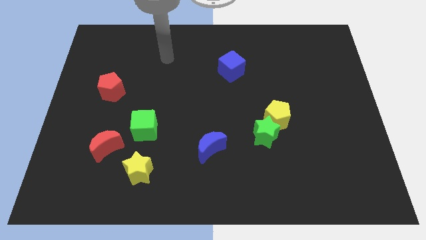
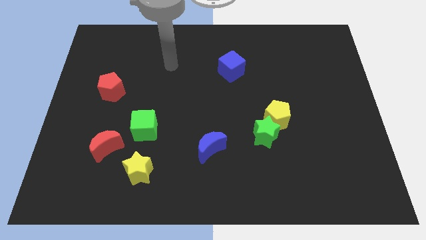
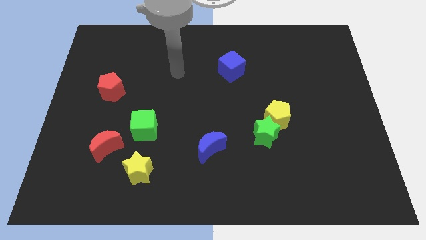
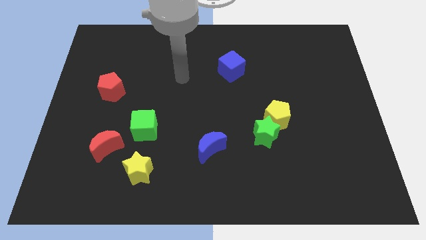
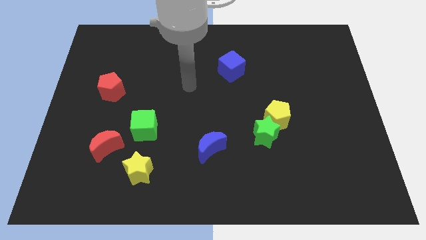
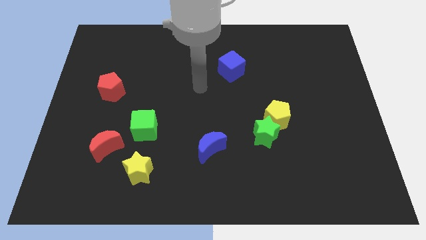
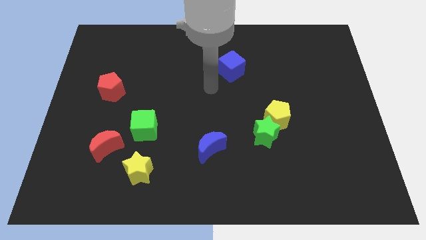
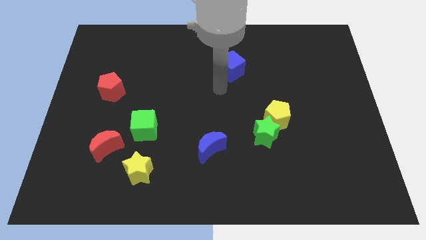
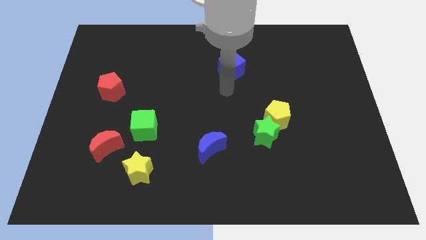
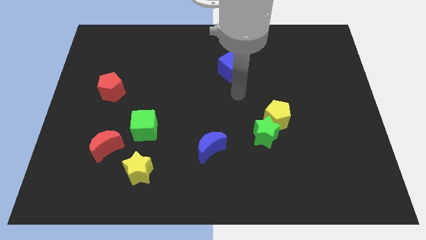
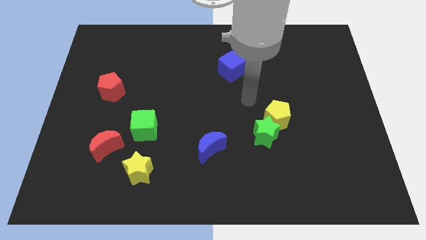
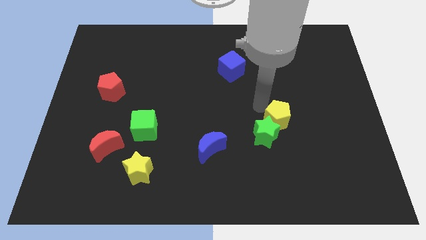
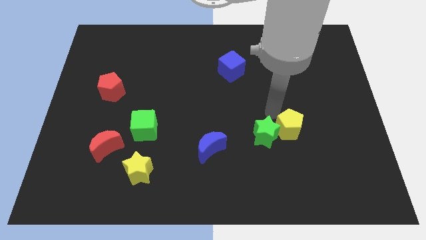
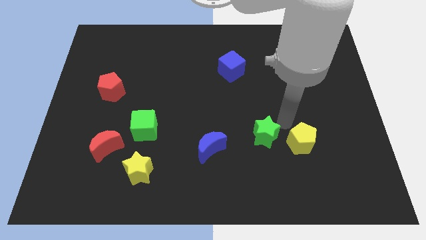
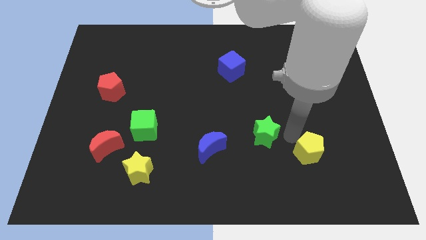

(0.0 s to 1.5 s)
separate the green star from the yellow pentagon

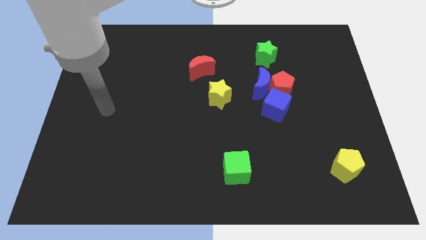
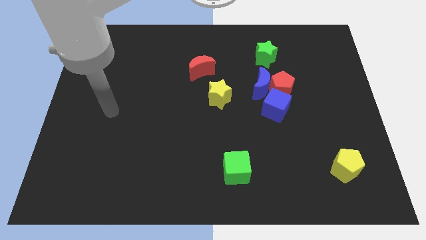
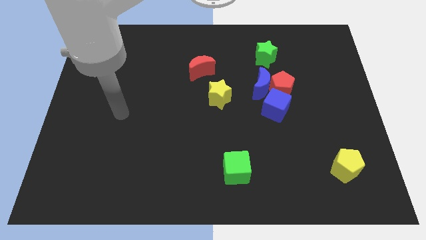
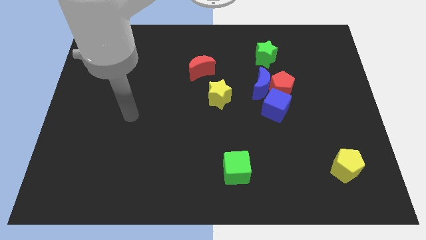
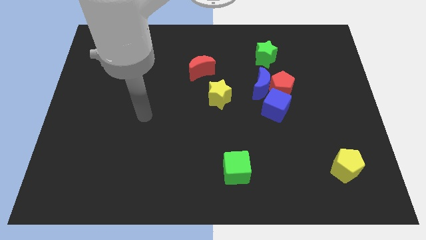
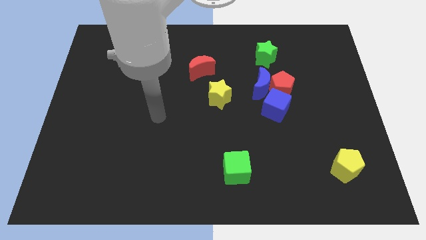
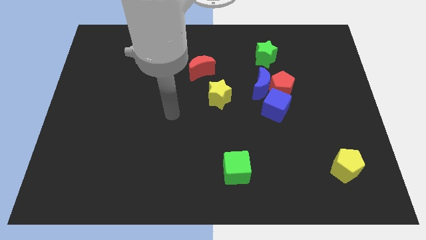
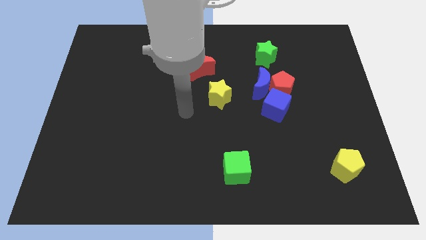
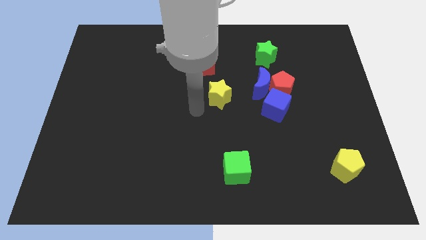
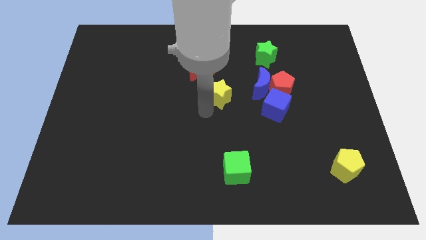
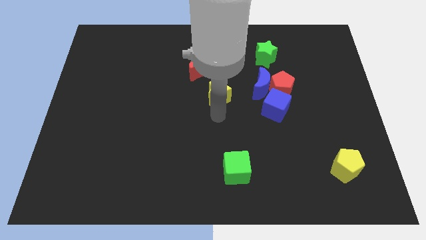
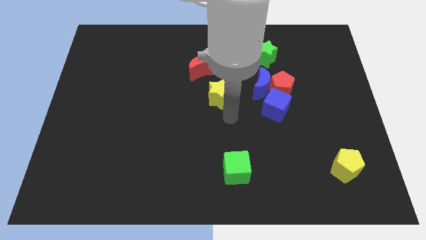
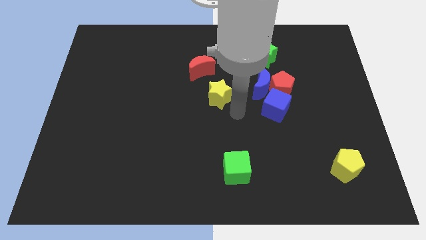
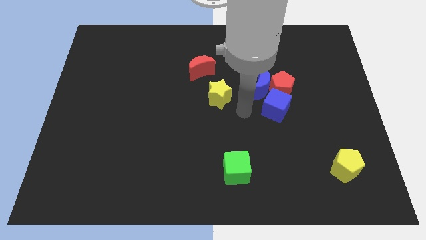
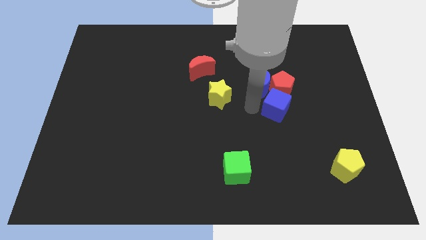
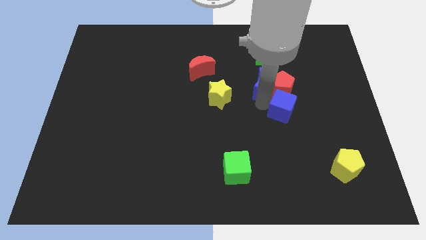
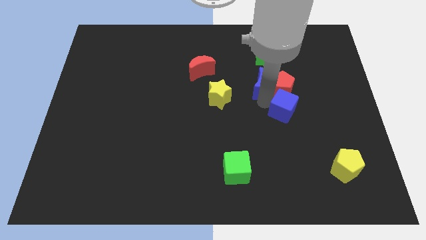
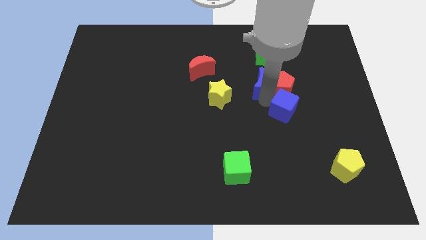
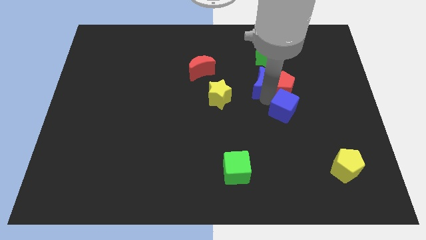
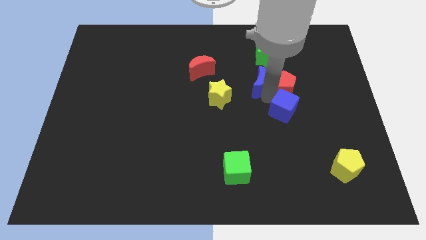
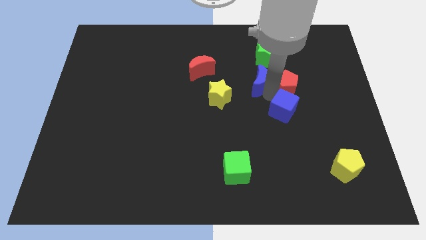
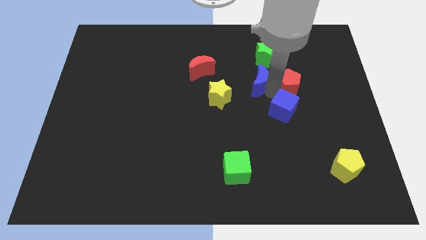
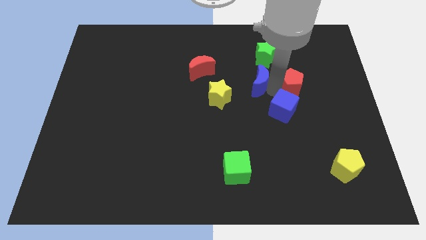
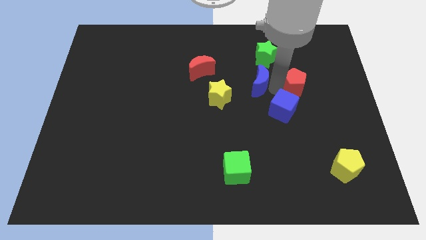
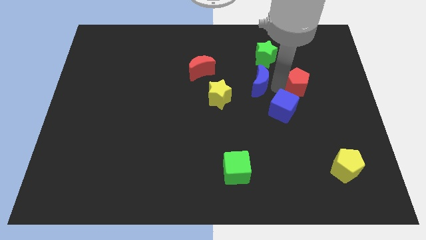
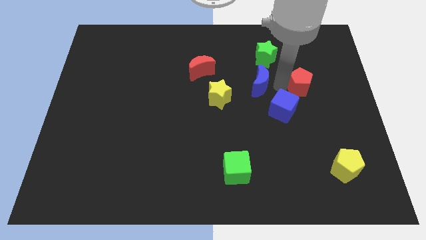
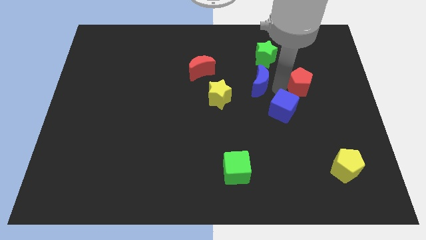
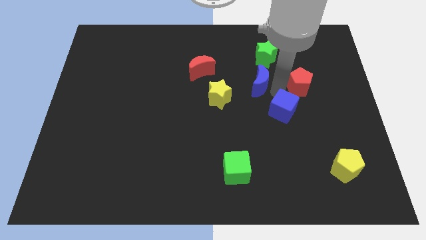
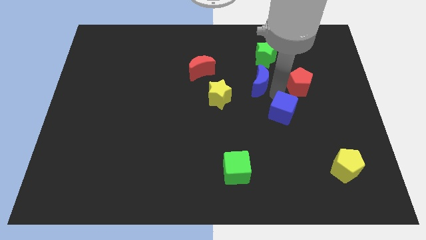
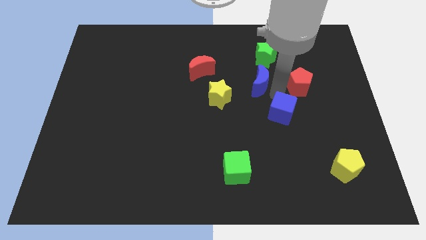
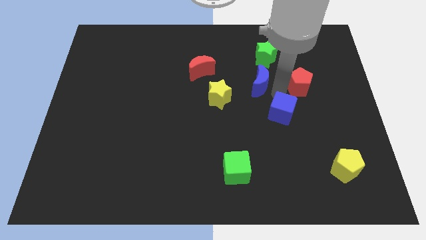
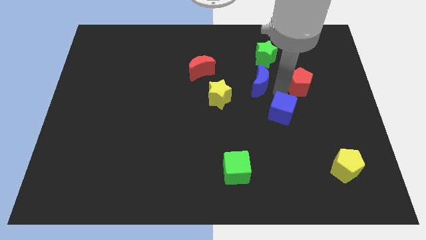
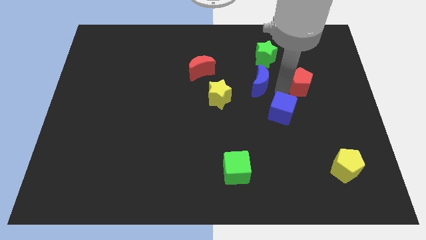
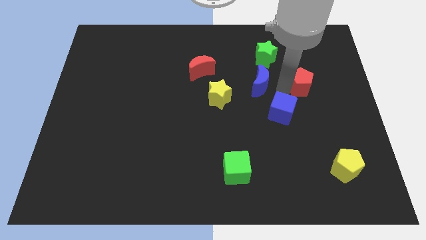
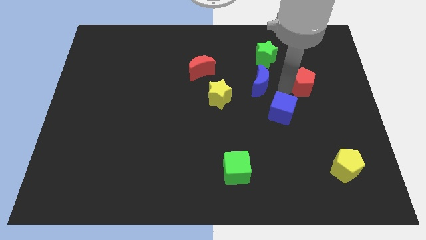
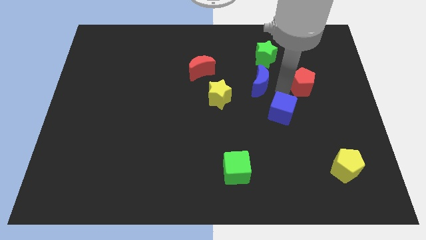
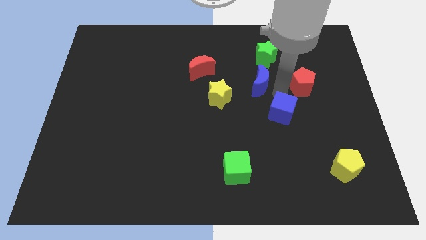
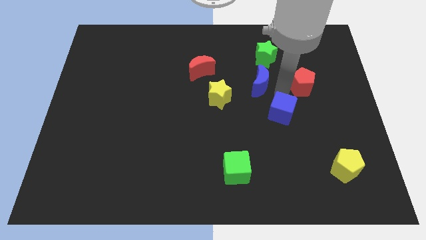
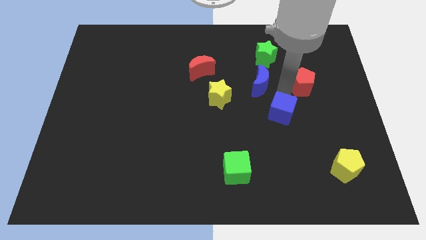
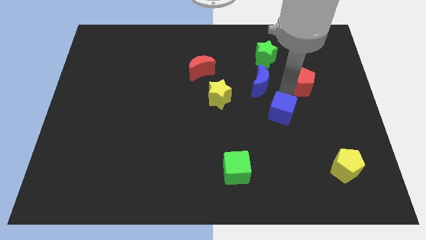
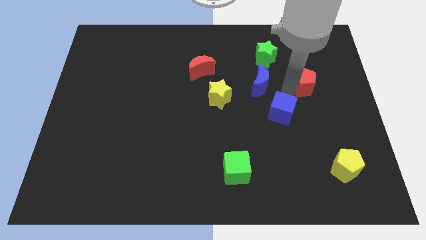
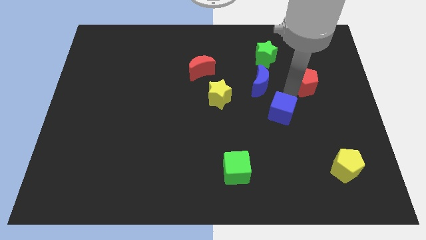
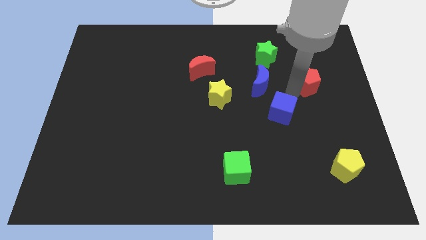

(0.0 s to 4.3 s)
move the red pentagon away from the blue moon and blue cube

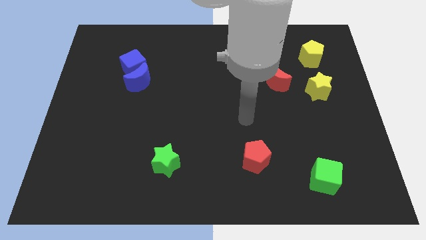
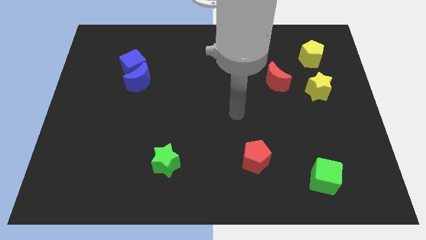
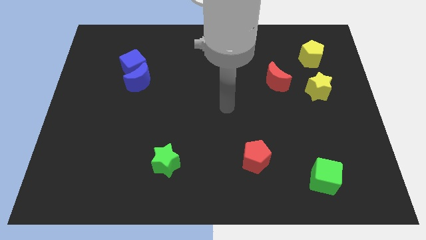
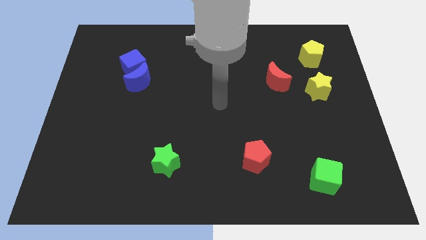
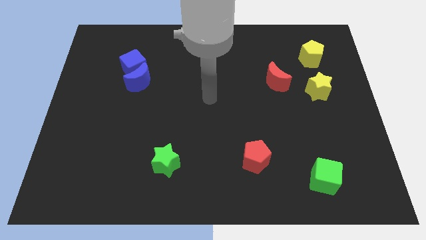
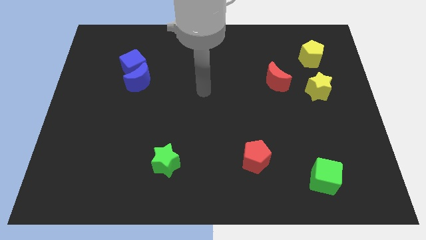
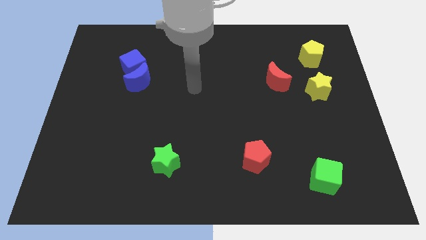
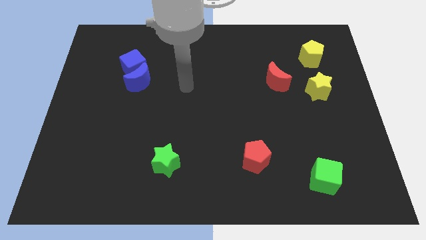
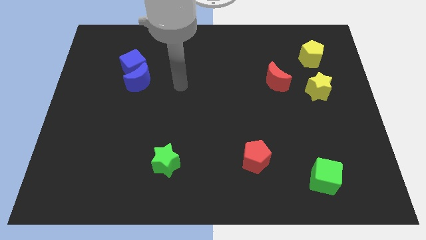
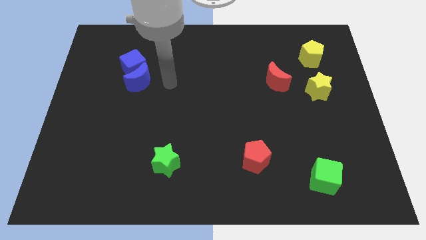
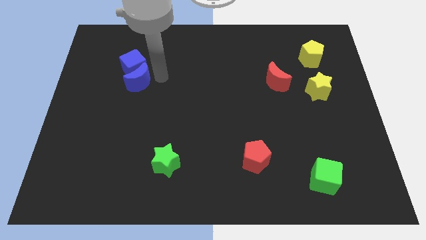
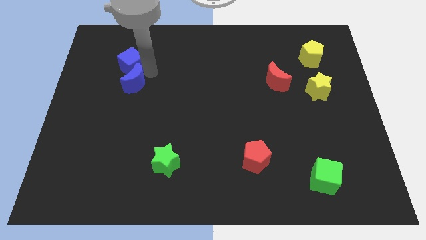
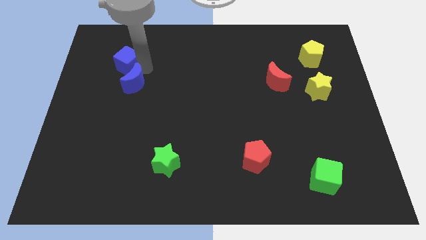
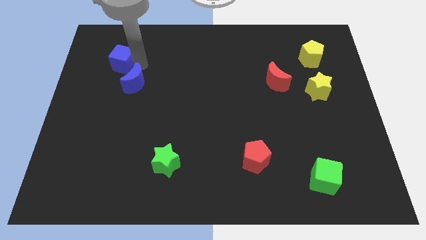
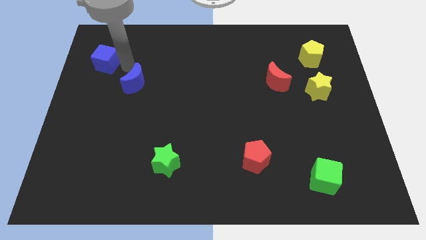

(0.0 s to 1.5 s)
separate the blue moon from the blue cube

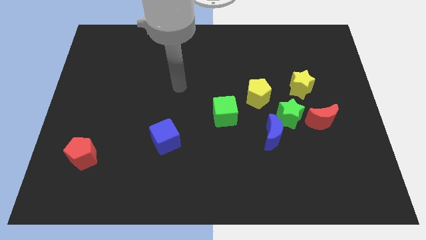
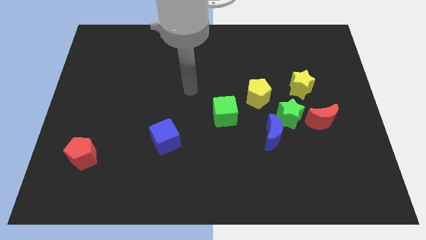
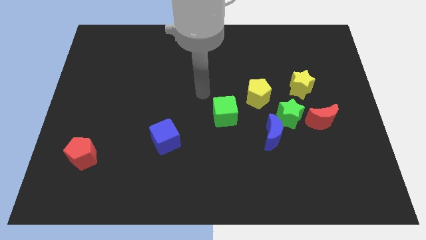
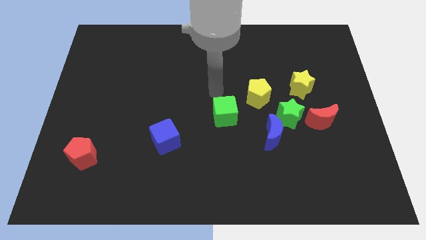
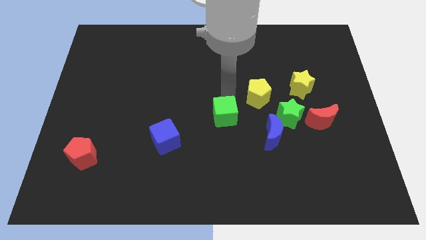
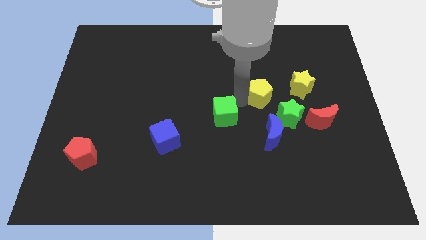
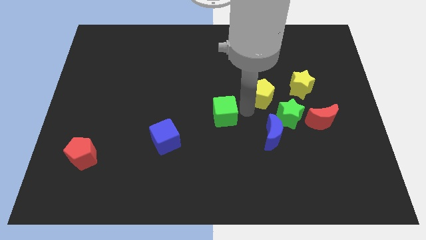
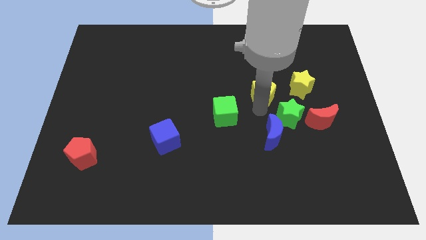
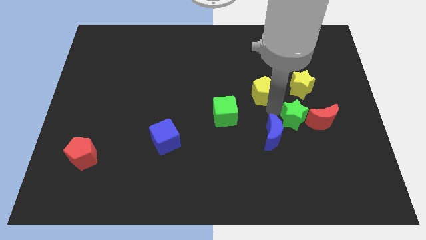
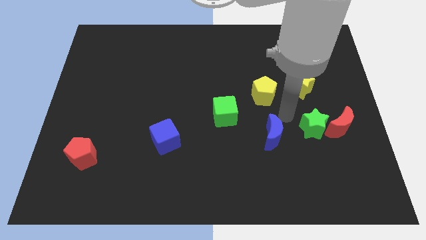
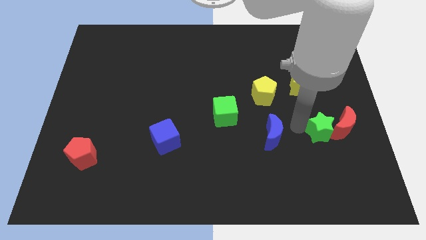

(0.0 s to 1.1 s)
separate the blue moon from the green star

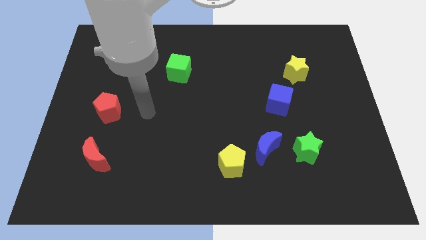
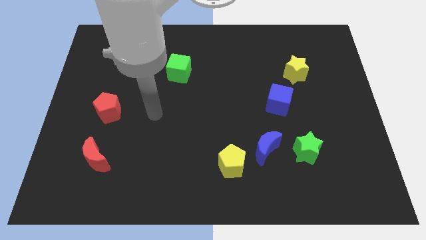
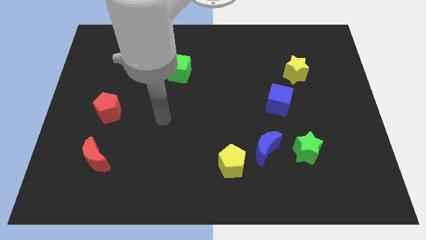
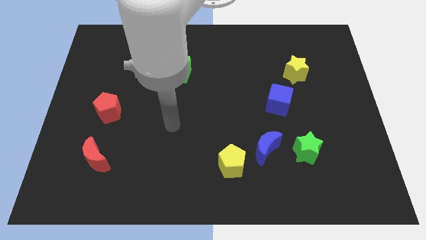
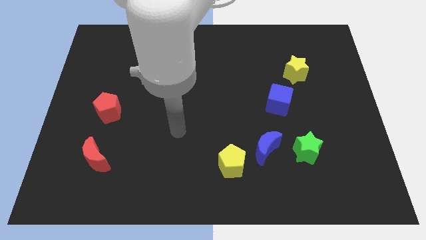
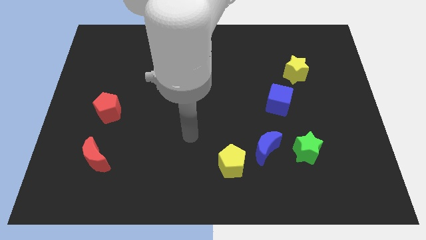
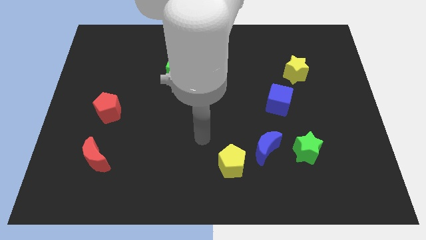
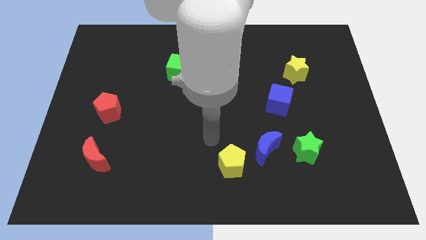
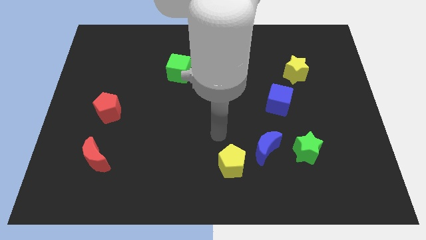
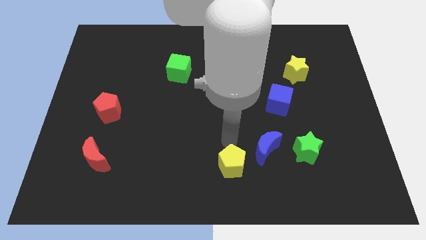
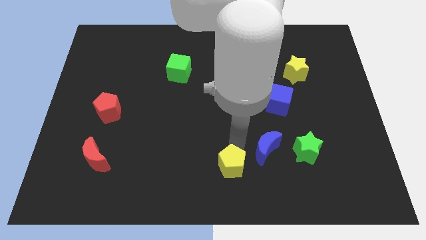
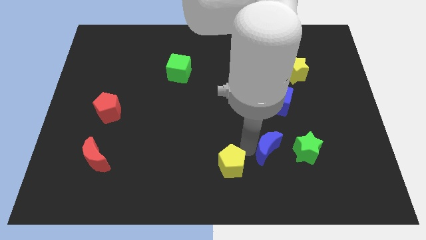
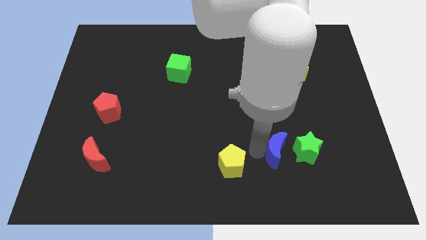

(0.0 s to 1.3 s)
pull the yellow pentagon apart from the blue moon
